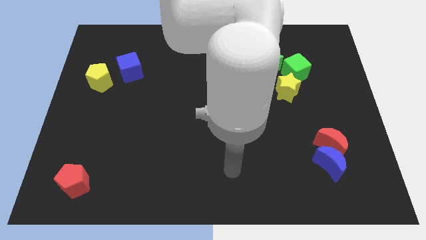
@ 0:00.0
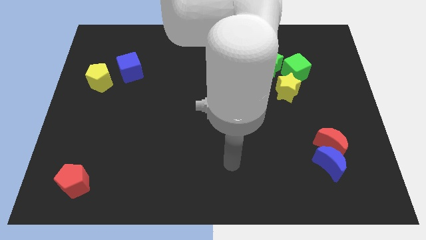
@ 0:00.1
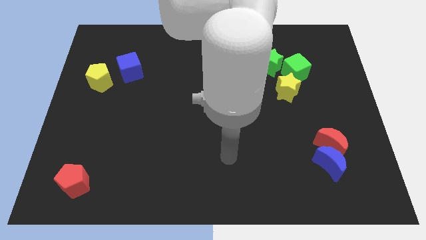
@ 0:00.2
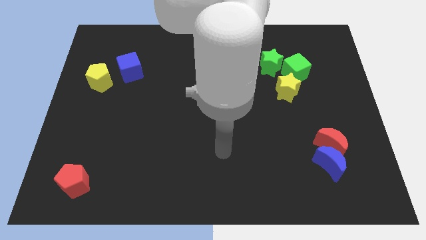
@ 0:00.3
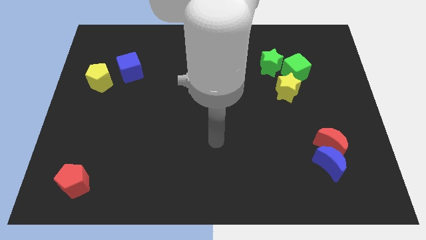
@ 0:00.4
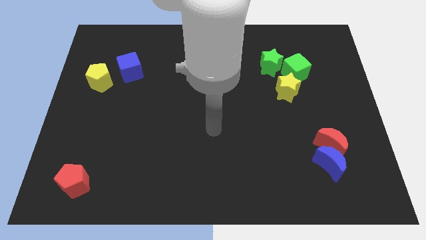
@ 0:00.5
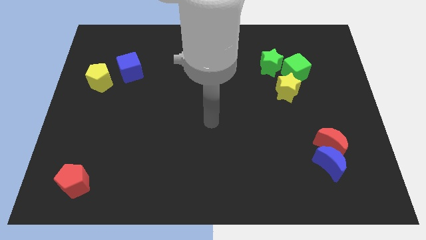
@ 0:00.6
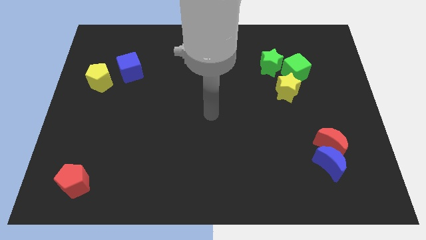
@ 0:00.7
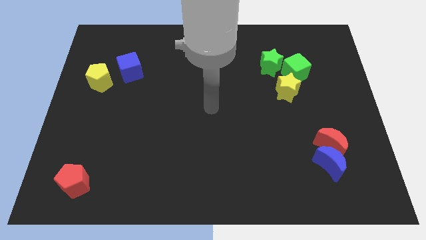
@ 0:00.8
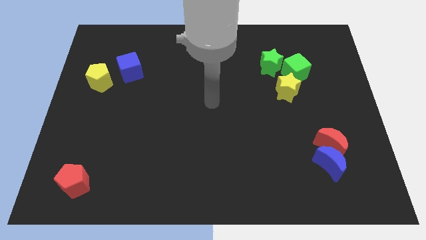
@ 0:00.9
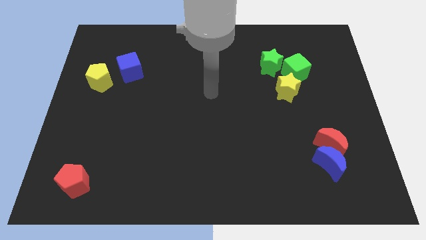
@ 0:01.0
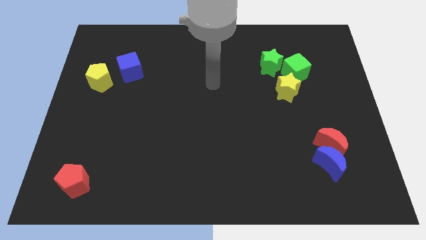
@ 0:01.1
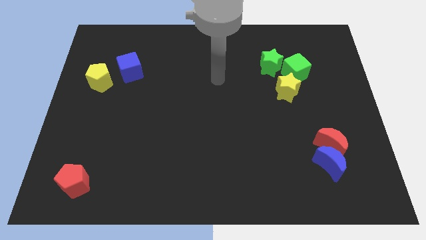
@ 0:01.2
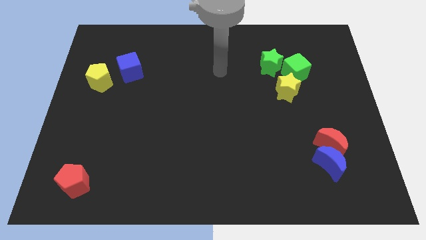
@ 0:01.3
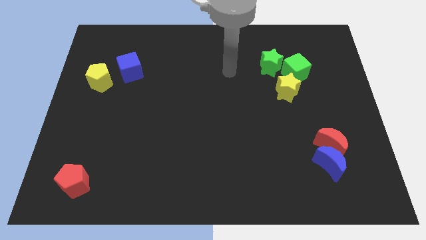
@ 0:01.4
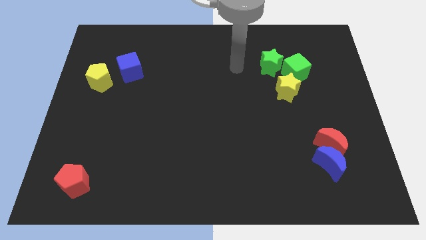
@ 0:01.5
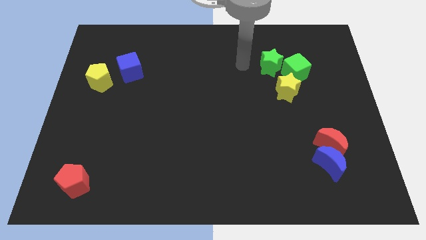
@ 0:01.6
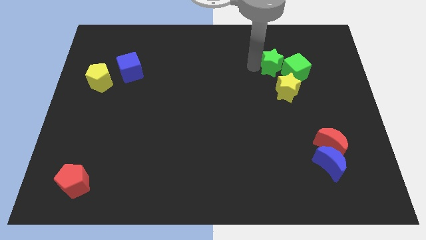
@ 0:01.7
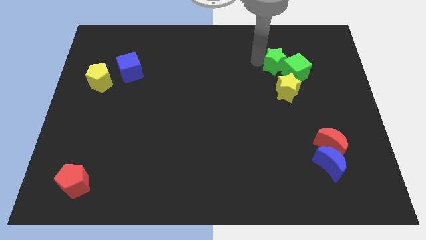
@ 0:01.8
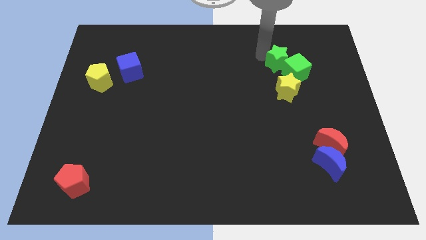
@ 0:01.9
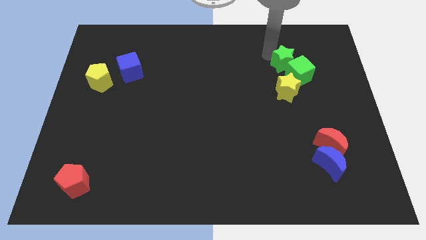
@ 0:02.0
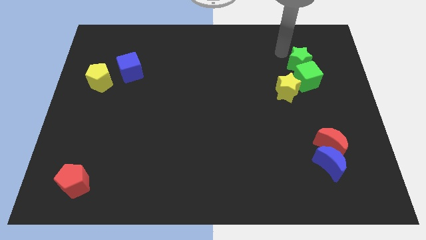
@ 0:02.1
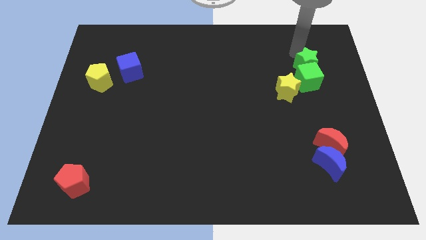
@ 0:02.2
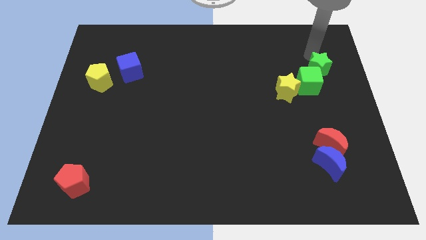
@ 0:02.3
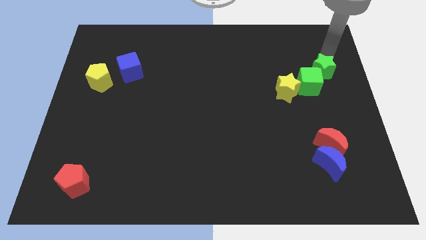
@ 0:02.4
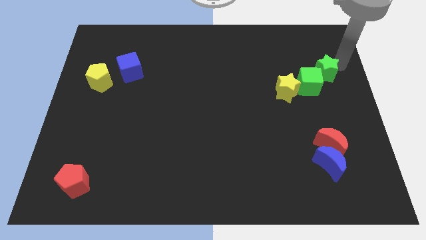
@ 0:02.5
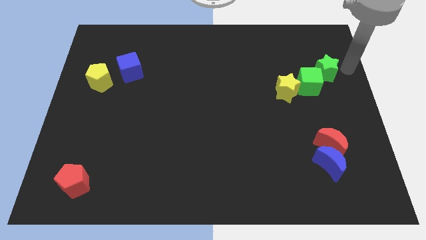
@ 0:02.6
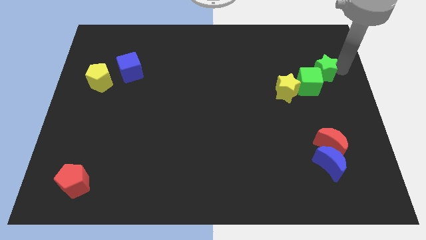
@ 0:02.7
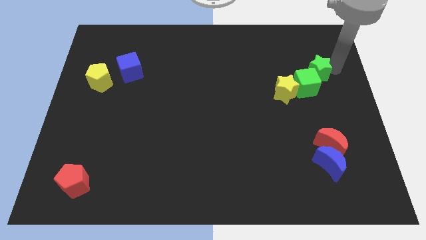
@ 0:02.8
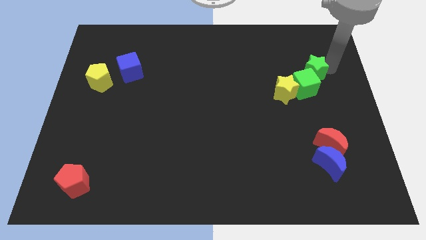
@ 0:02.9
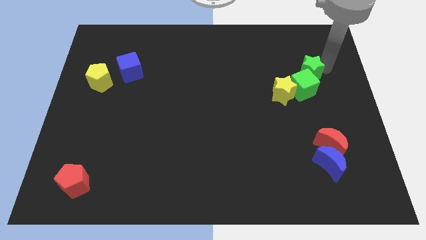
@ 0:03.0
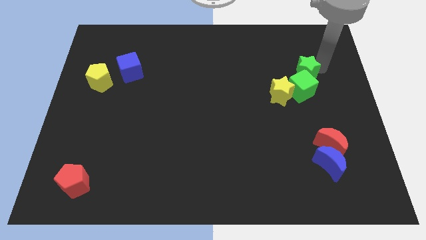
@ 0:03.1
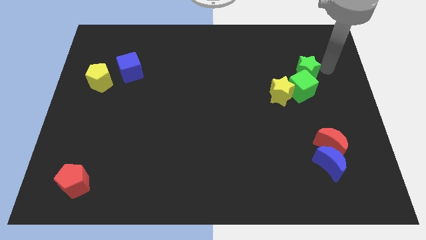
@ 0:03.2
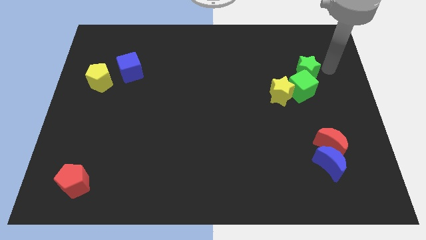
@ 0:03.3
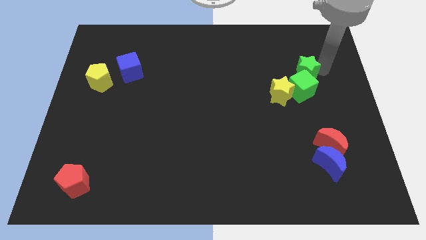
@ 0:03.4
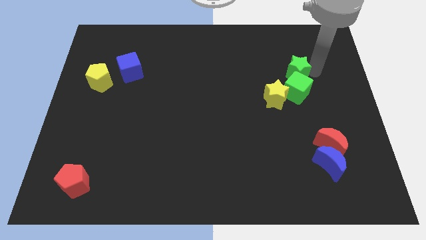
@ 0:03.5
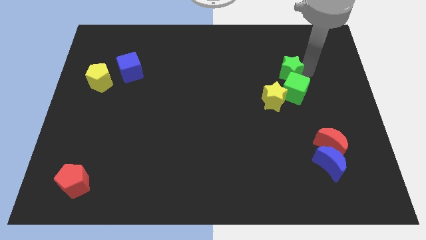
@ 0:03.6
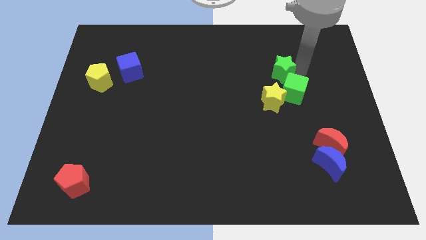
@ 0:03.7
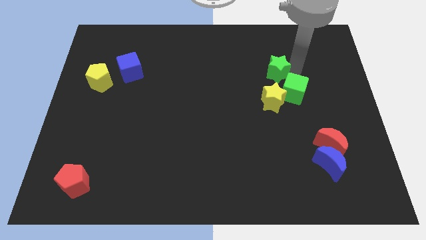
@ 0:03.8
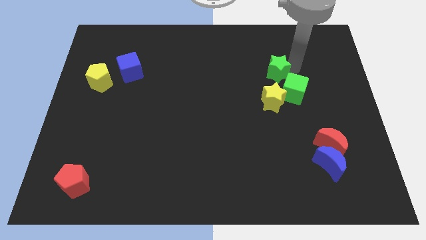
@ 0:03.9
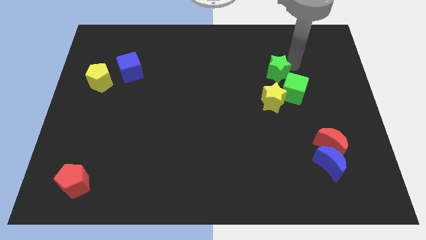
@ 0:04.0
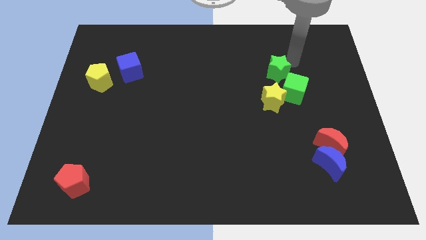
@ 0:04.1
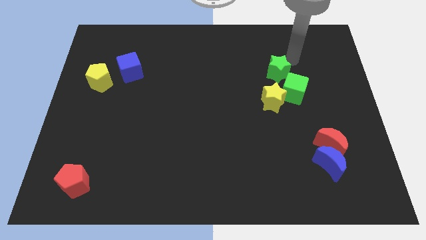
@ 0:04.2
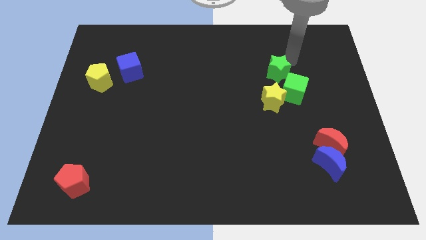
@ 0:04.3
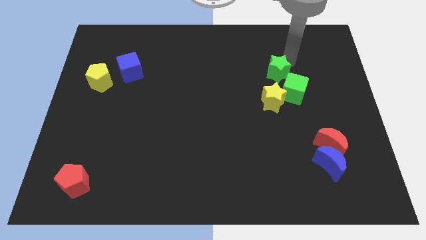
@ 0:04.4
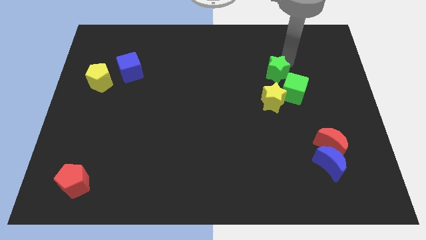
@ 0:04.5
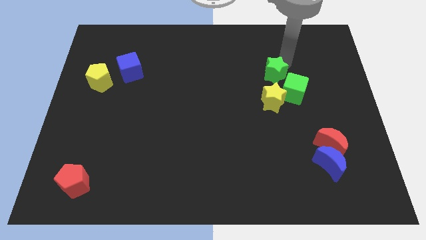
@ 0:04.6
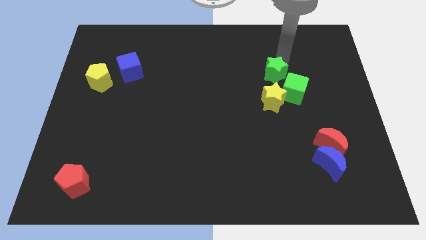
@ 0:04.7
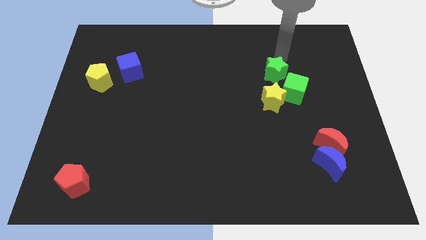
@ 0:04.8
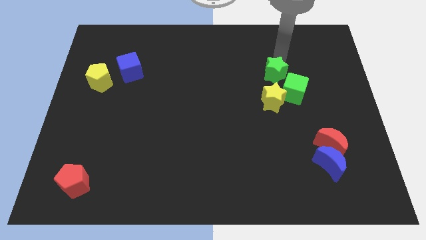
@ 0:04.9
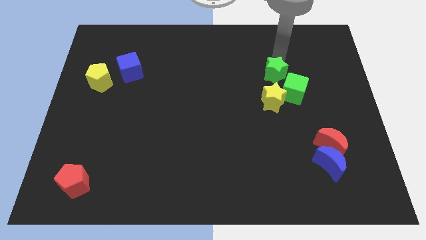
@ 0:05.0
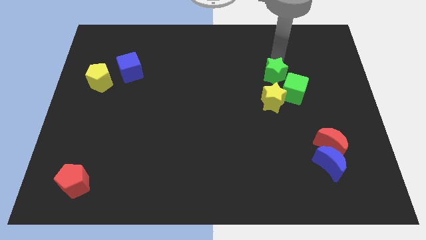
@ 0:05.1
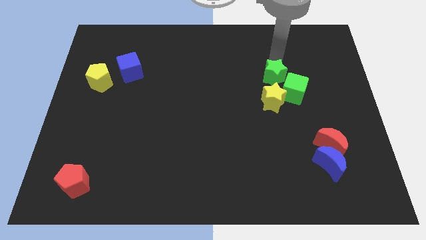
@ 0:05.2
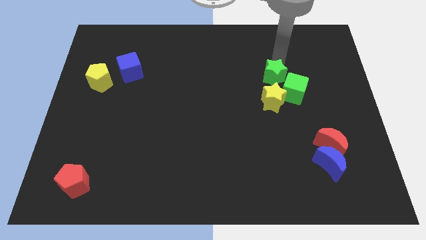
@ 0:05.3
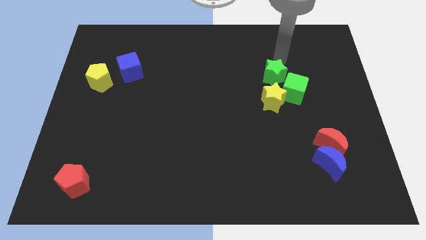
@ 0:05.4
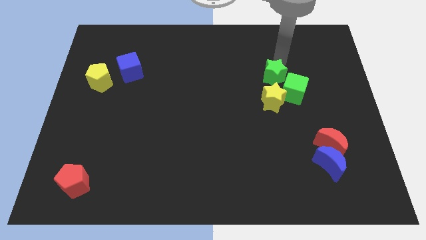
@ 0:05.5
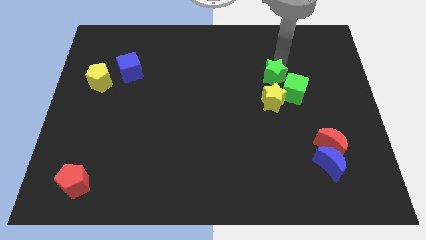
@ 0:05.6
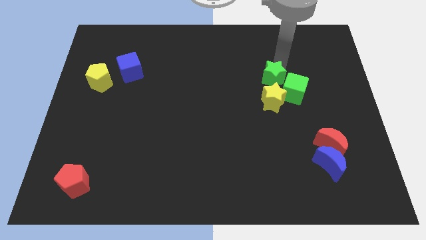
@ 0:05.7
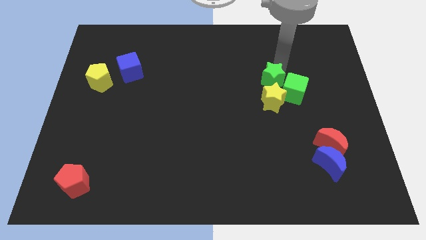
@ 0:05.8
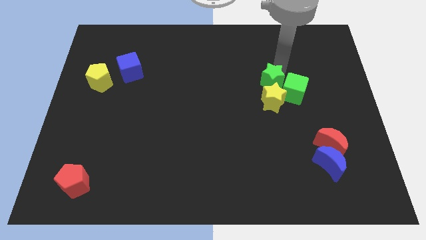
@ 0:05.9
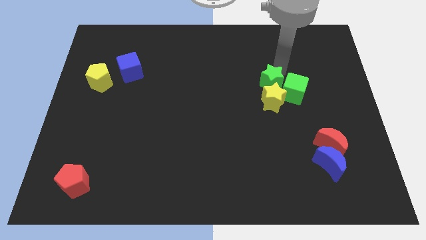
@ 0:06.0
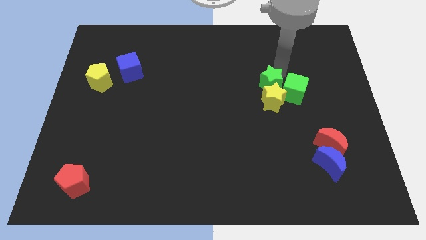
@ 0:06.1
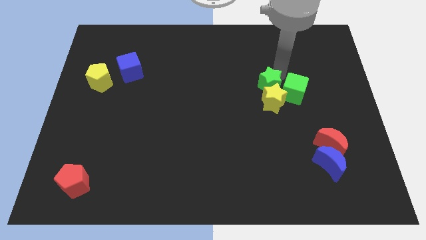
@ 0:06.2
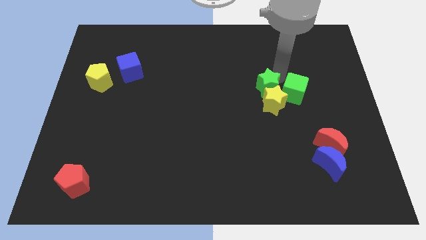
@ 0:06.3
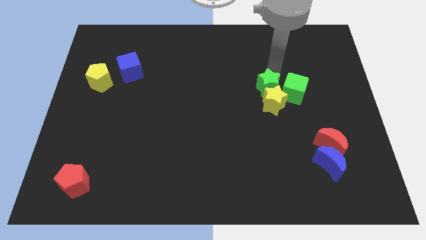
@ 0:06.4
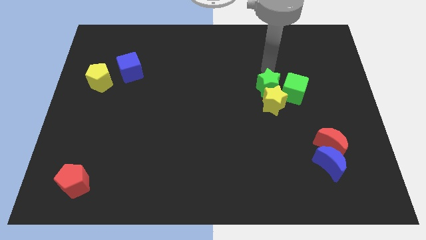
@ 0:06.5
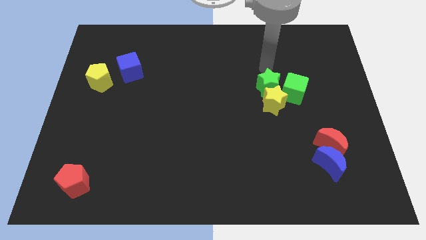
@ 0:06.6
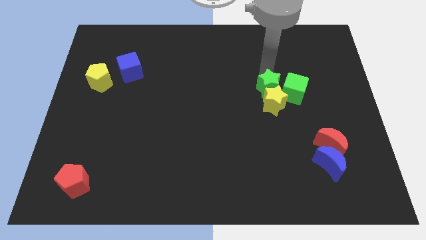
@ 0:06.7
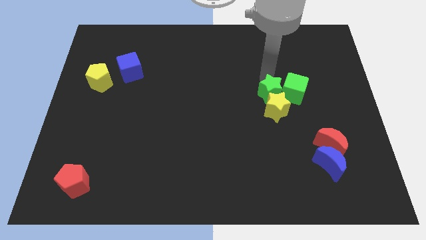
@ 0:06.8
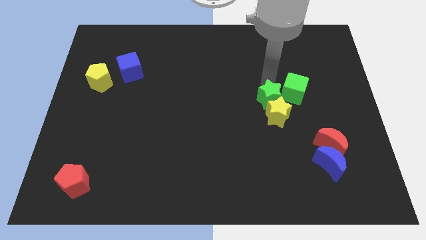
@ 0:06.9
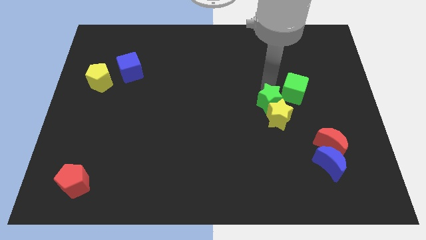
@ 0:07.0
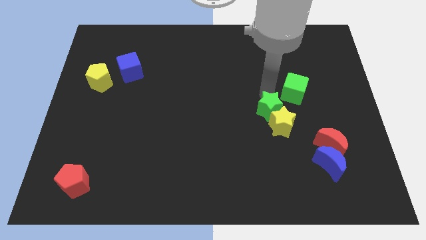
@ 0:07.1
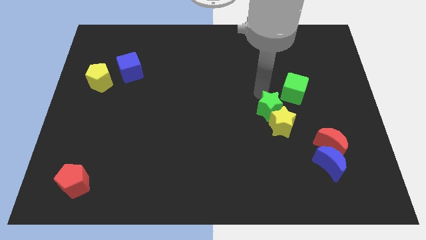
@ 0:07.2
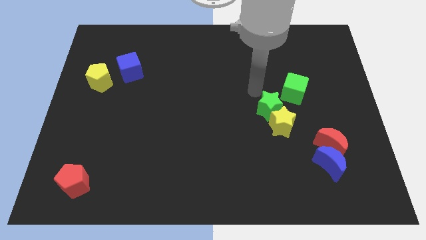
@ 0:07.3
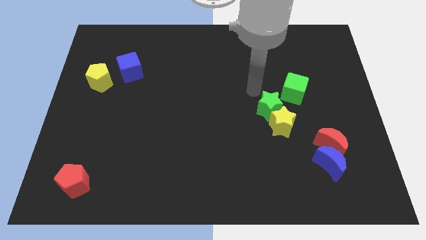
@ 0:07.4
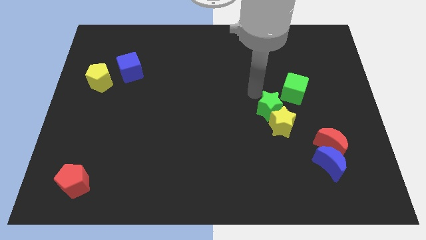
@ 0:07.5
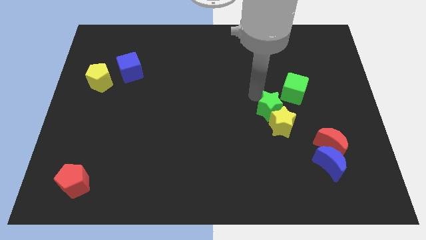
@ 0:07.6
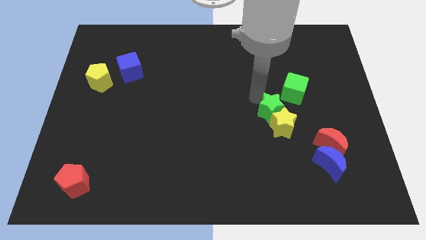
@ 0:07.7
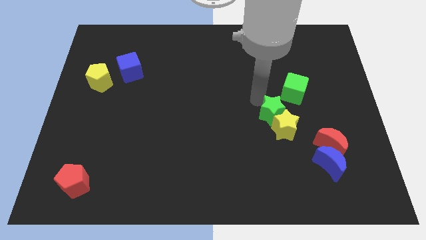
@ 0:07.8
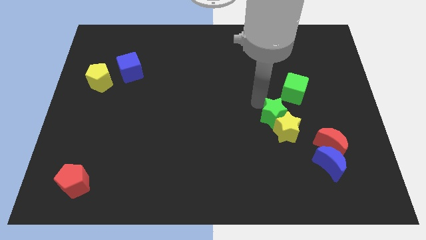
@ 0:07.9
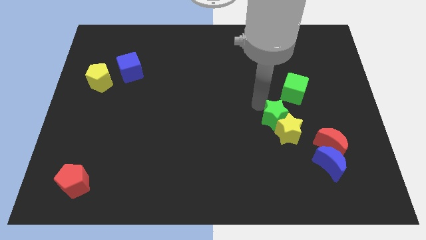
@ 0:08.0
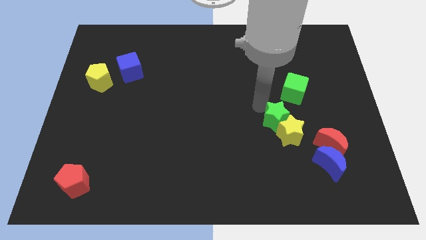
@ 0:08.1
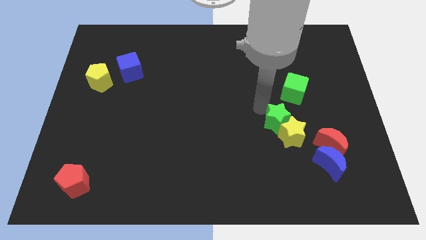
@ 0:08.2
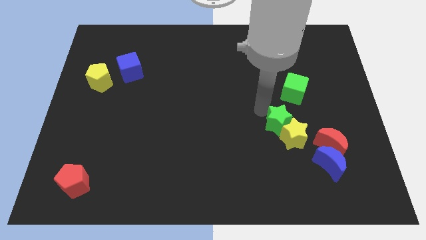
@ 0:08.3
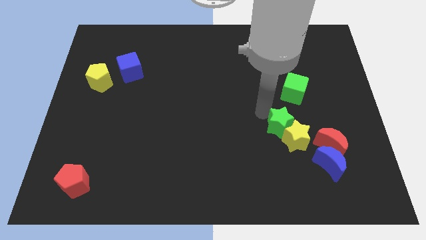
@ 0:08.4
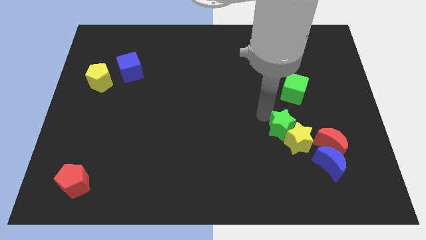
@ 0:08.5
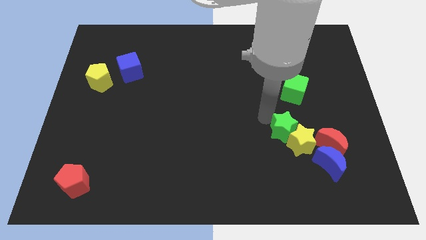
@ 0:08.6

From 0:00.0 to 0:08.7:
slide the green star diagonally up and to the left of the blue moon
